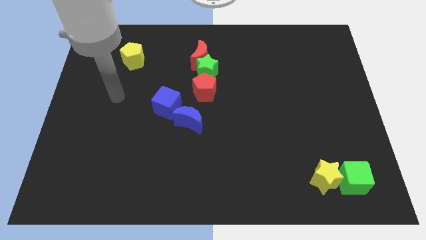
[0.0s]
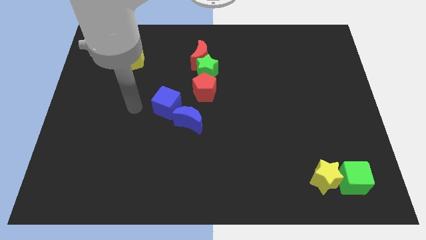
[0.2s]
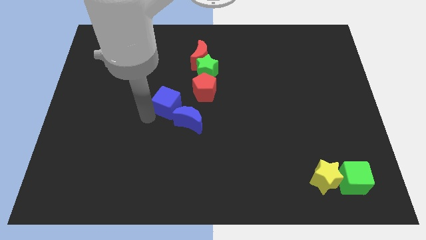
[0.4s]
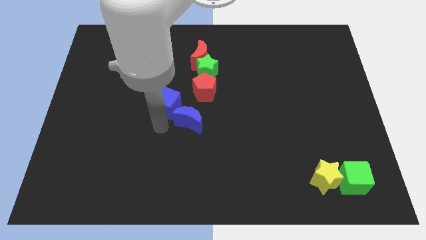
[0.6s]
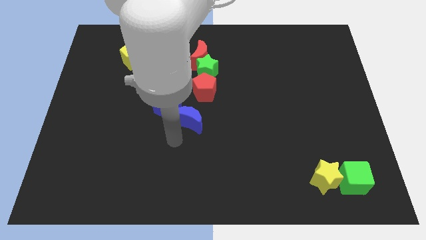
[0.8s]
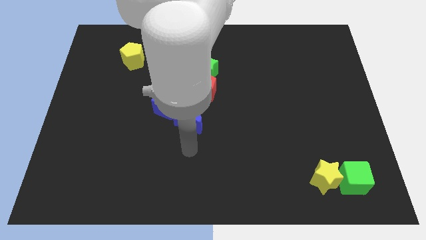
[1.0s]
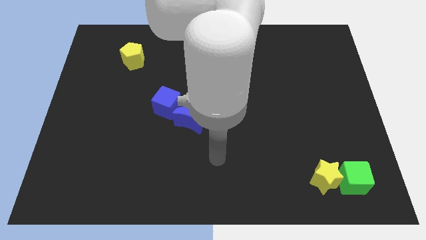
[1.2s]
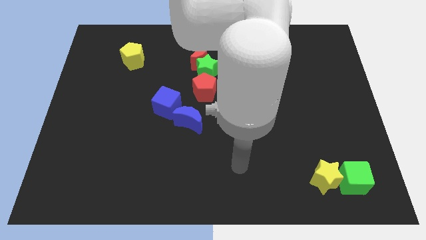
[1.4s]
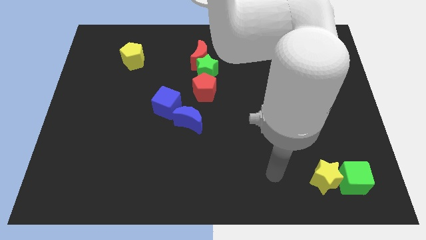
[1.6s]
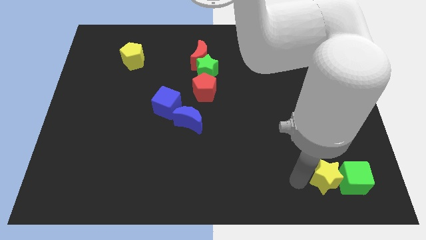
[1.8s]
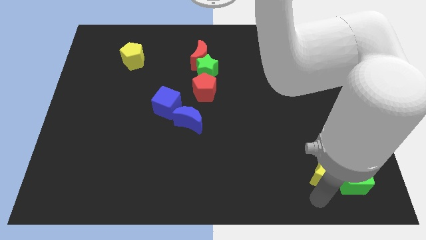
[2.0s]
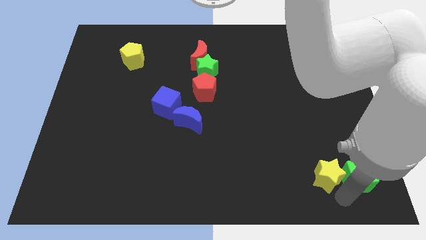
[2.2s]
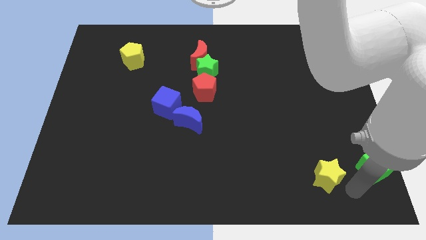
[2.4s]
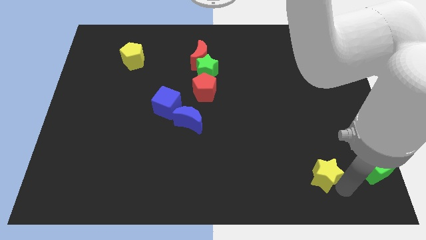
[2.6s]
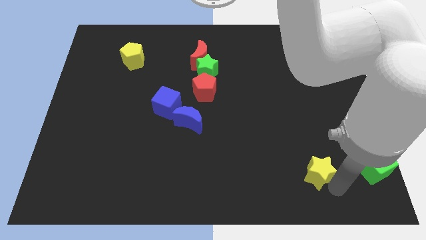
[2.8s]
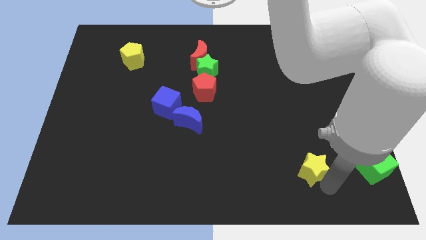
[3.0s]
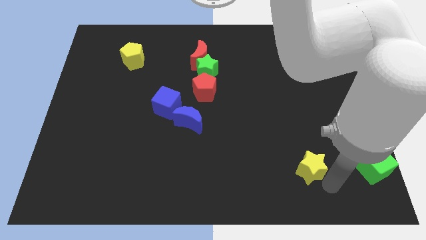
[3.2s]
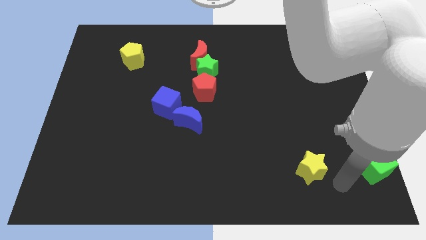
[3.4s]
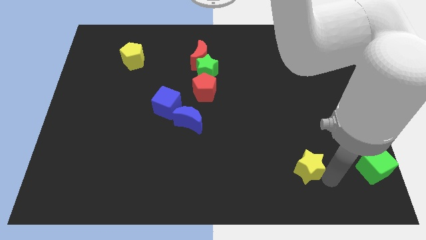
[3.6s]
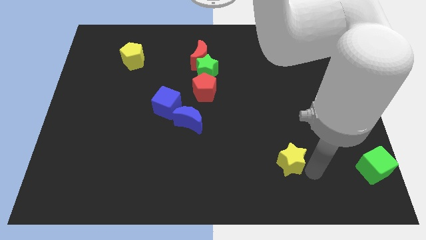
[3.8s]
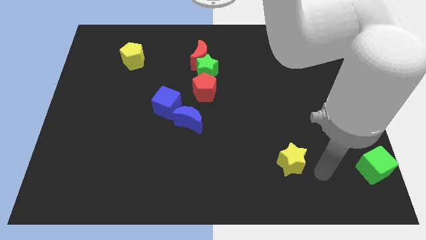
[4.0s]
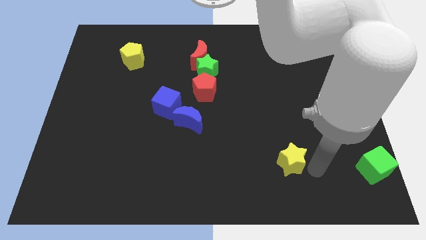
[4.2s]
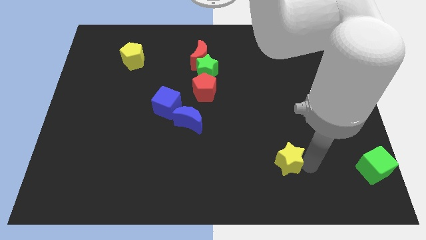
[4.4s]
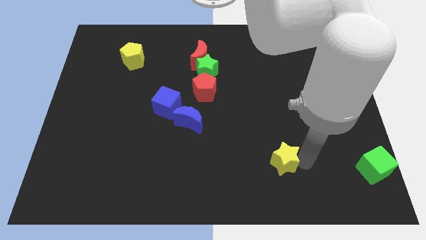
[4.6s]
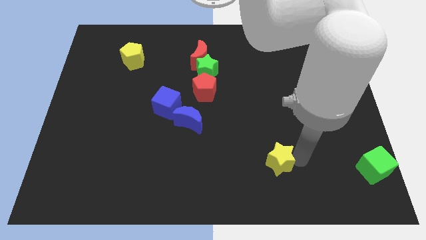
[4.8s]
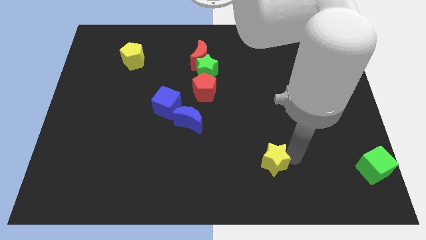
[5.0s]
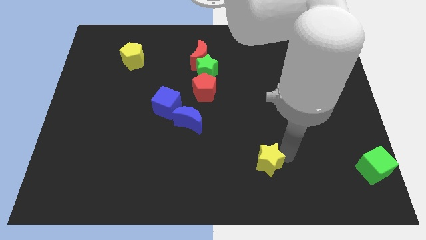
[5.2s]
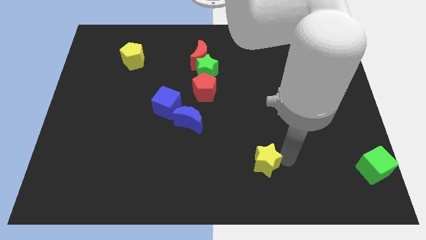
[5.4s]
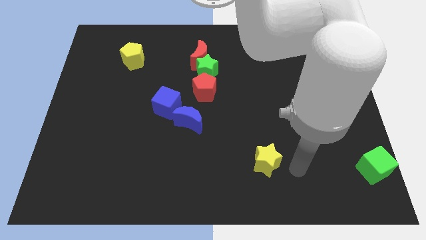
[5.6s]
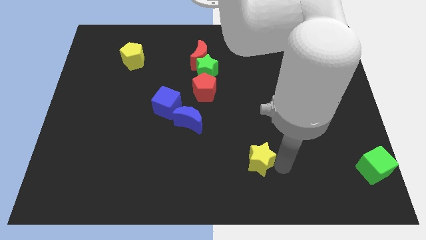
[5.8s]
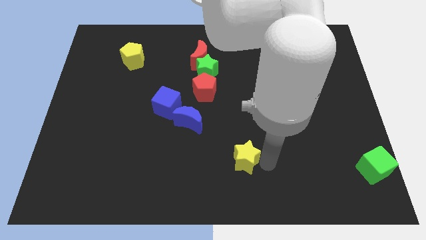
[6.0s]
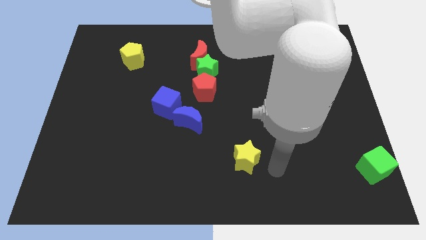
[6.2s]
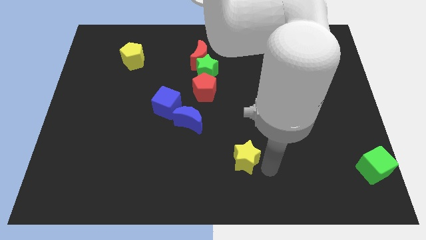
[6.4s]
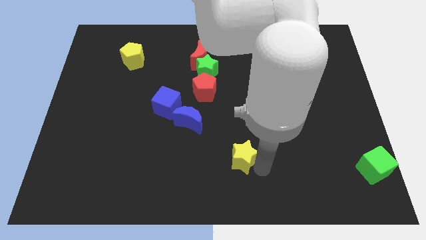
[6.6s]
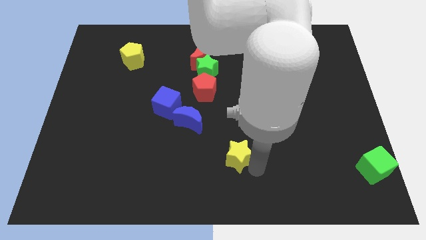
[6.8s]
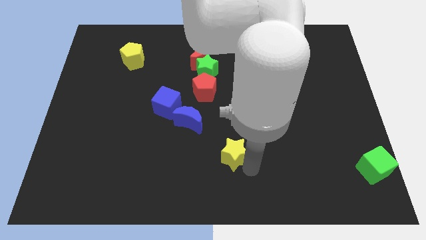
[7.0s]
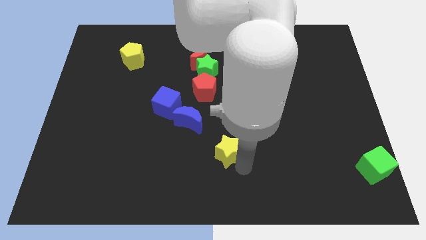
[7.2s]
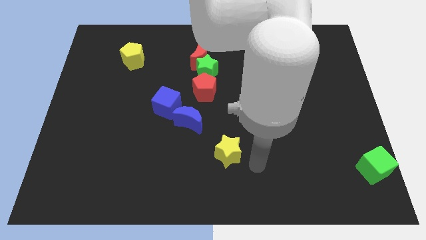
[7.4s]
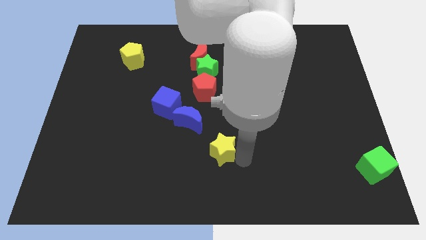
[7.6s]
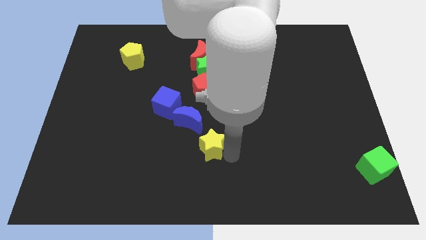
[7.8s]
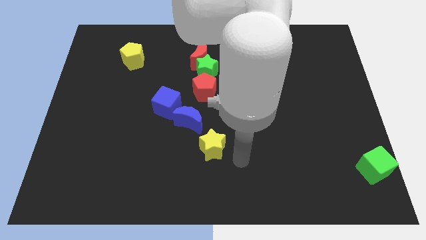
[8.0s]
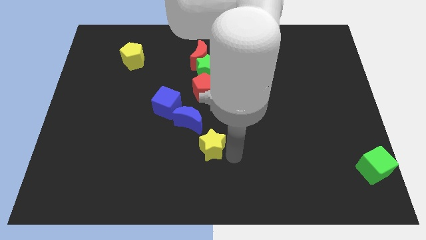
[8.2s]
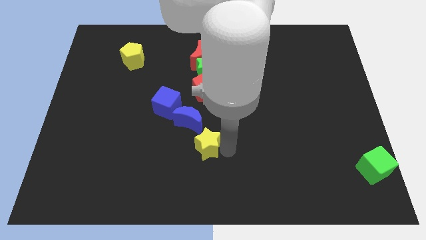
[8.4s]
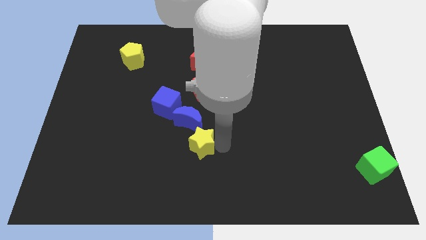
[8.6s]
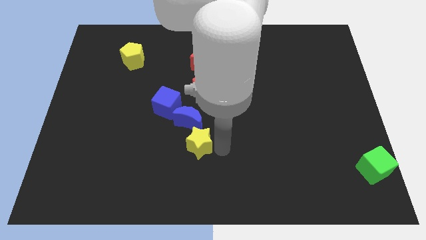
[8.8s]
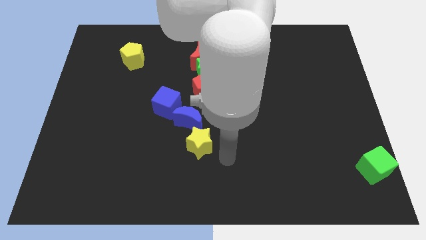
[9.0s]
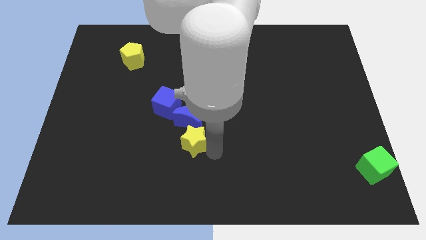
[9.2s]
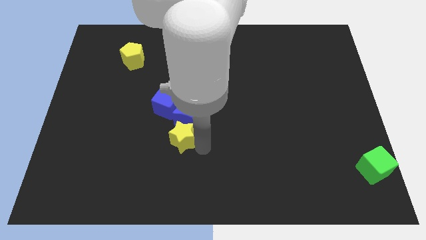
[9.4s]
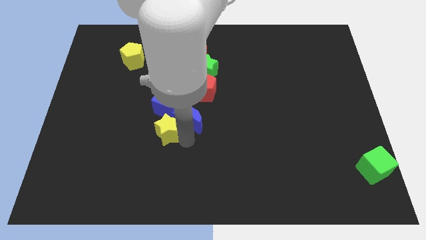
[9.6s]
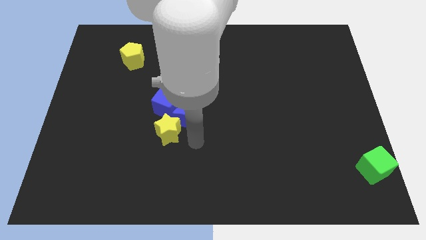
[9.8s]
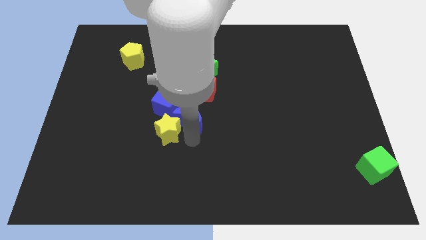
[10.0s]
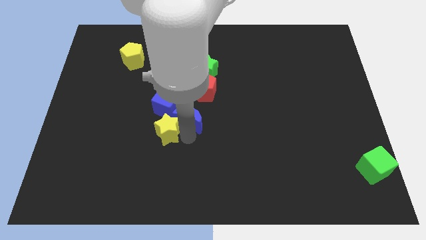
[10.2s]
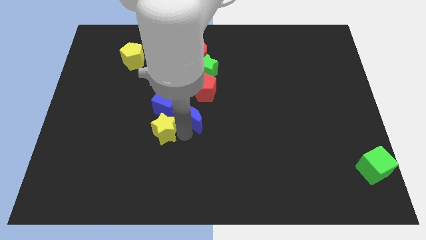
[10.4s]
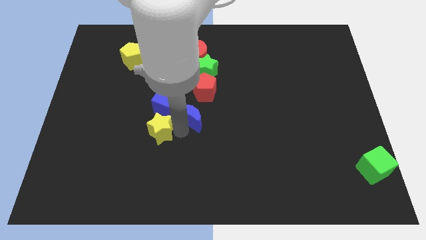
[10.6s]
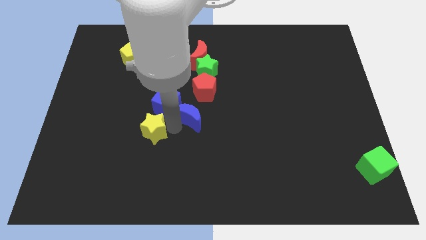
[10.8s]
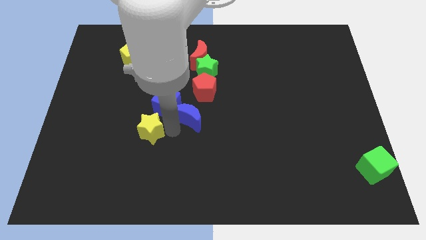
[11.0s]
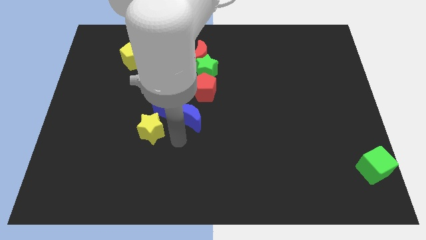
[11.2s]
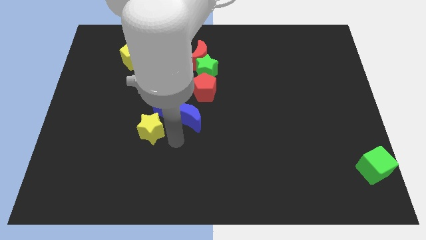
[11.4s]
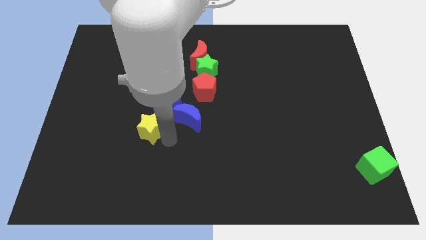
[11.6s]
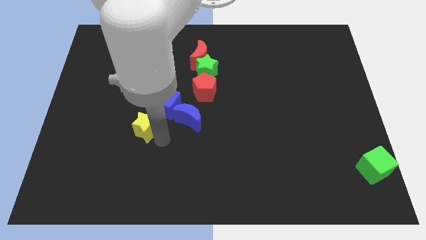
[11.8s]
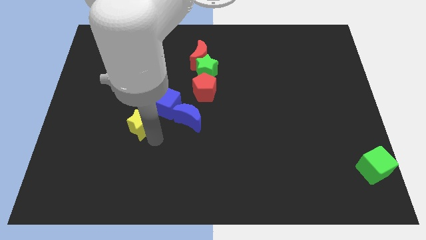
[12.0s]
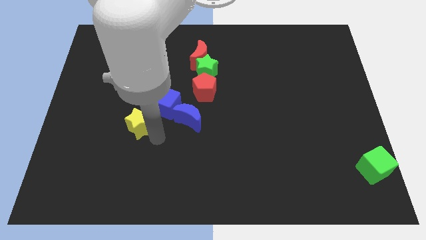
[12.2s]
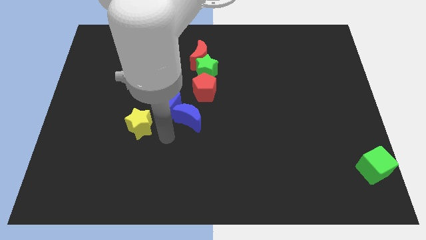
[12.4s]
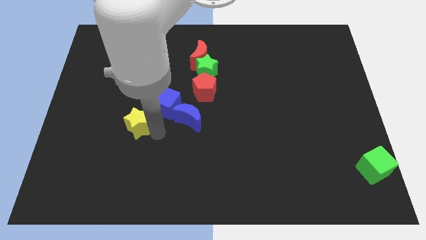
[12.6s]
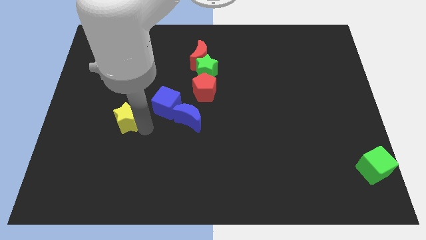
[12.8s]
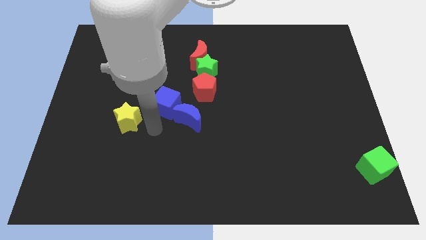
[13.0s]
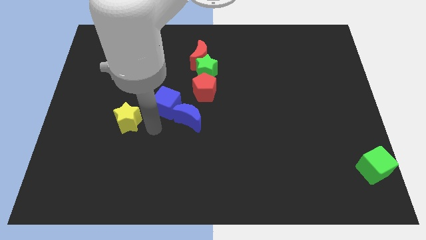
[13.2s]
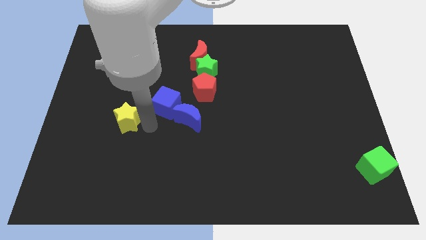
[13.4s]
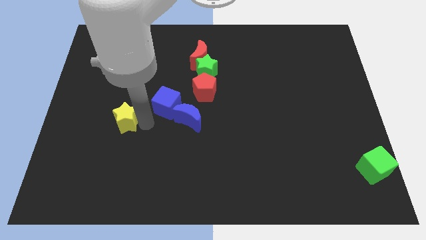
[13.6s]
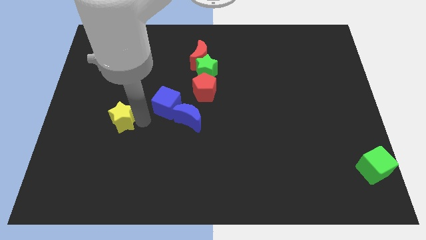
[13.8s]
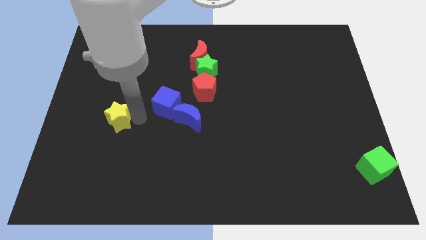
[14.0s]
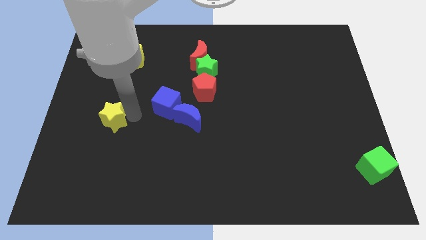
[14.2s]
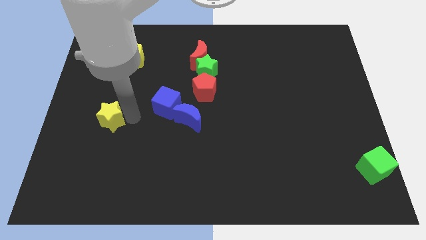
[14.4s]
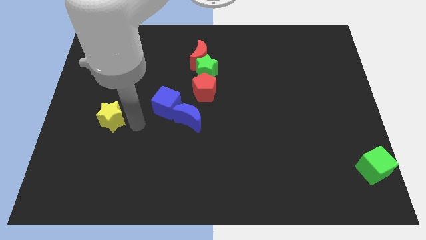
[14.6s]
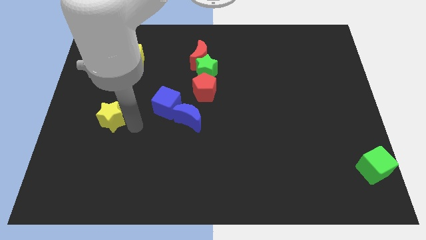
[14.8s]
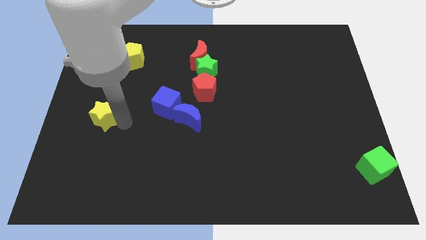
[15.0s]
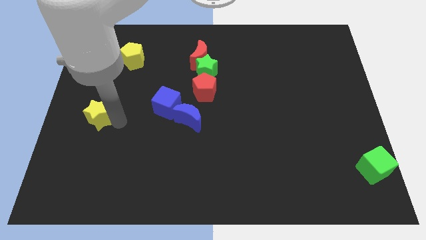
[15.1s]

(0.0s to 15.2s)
put the yellow star to the left side
